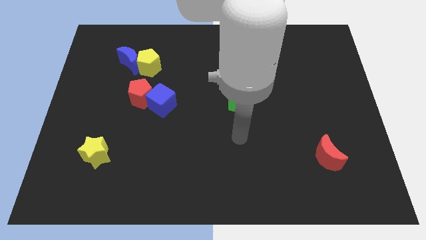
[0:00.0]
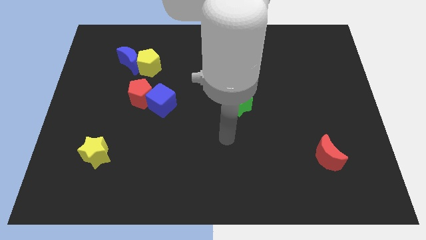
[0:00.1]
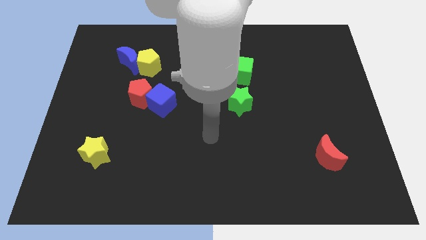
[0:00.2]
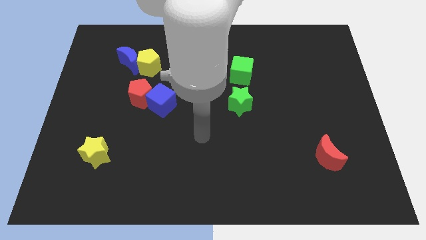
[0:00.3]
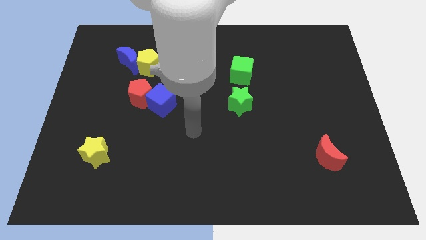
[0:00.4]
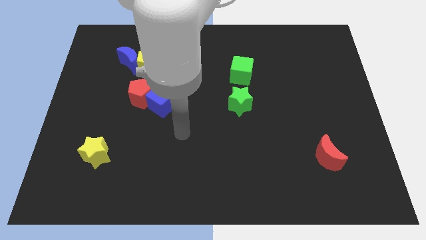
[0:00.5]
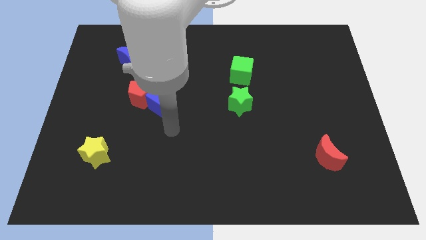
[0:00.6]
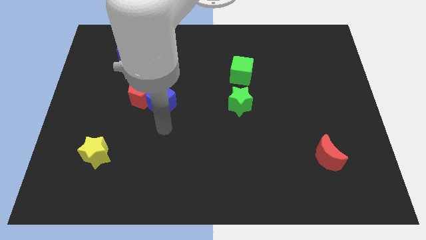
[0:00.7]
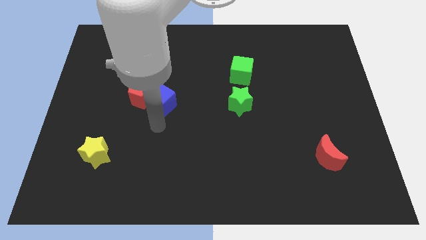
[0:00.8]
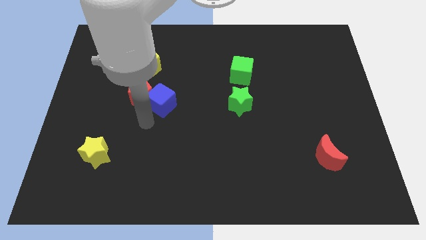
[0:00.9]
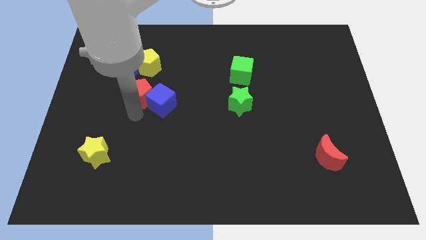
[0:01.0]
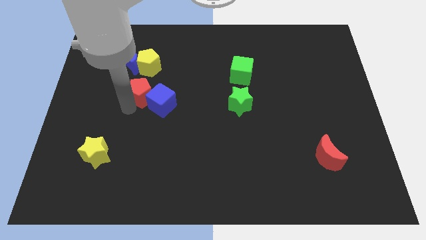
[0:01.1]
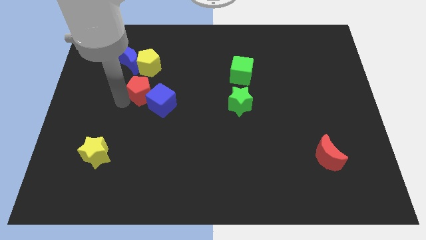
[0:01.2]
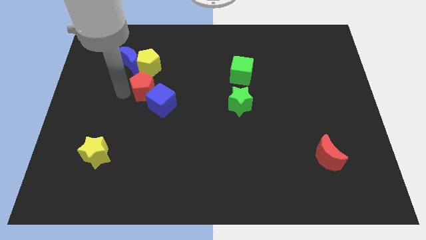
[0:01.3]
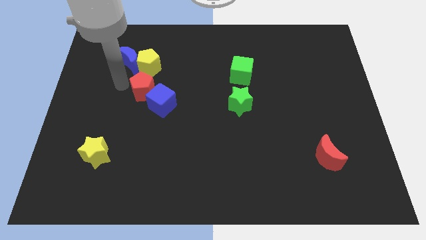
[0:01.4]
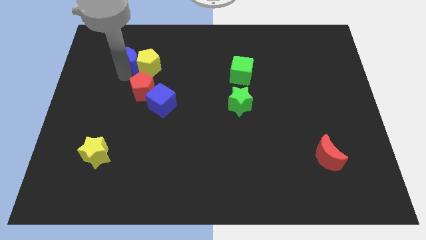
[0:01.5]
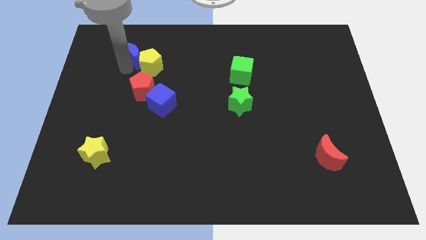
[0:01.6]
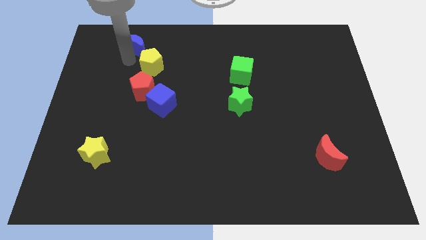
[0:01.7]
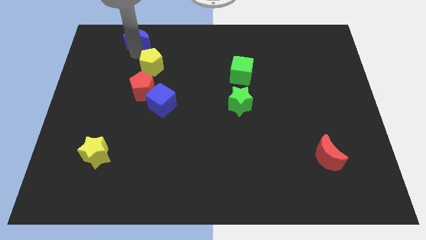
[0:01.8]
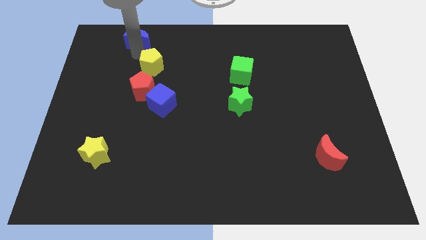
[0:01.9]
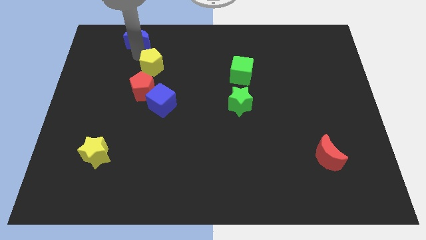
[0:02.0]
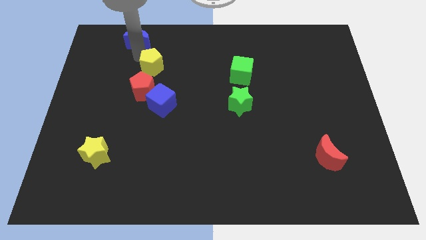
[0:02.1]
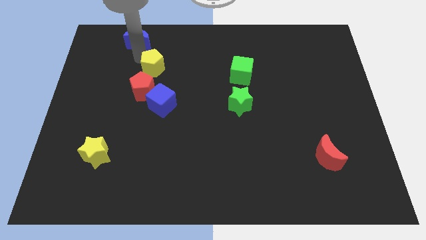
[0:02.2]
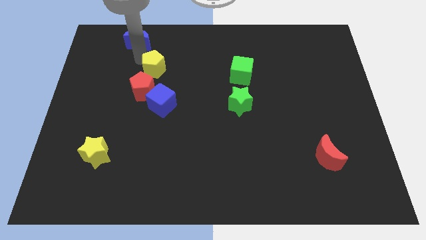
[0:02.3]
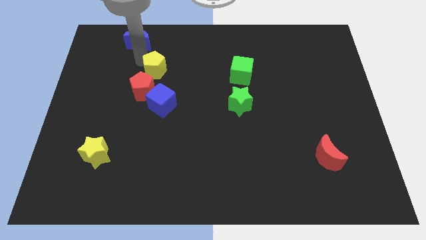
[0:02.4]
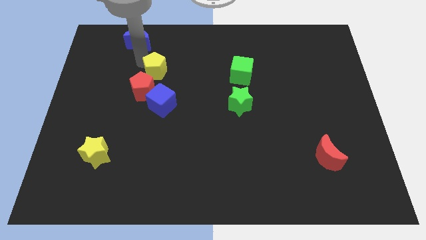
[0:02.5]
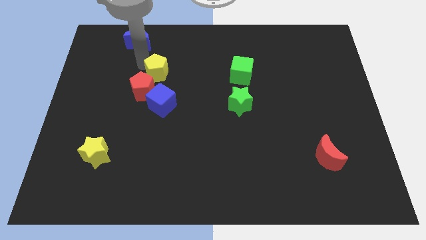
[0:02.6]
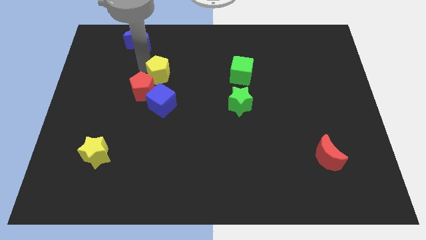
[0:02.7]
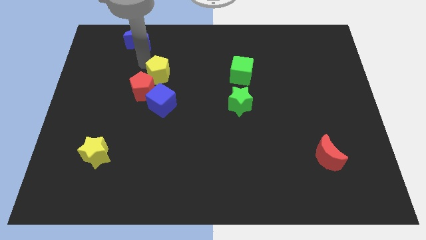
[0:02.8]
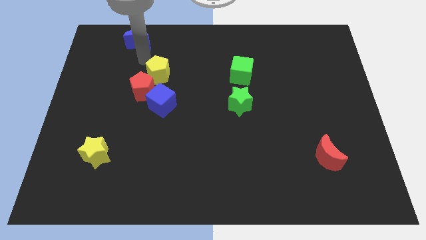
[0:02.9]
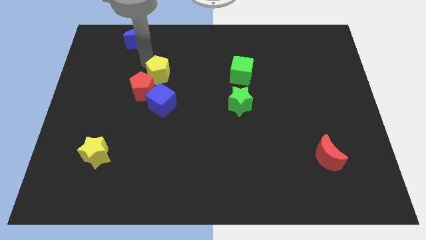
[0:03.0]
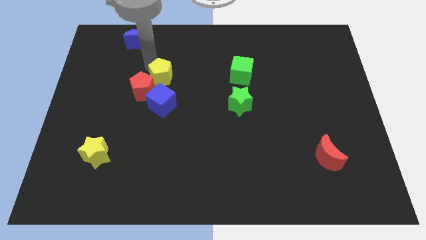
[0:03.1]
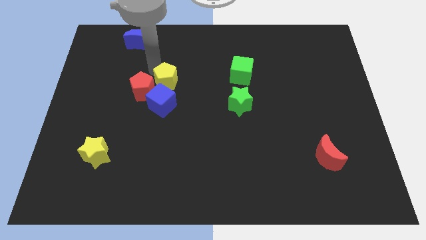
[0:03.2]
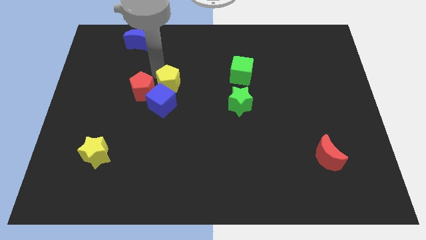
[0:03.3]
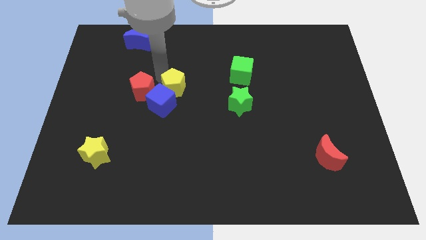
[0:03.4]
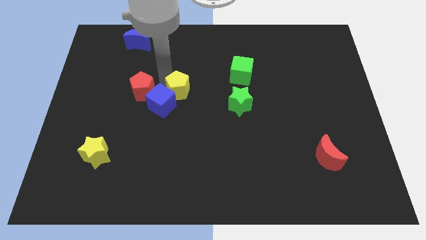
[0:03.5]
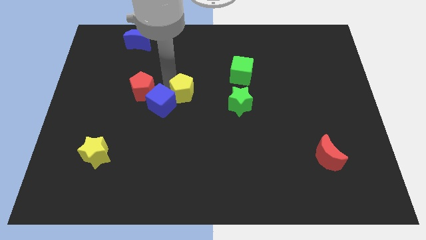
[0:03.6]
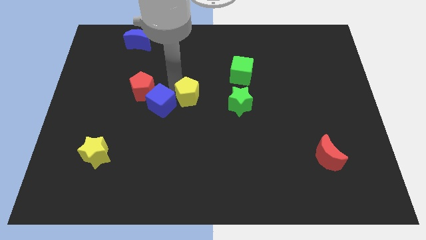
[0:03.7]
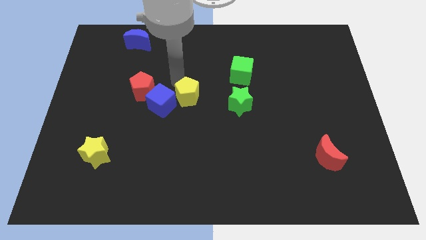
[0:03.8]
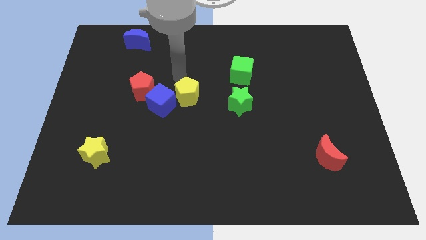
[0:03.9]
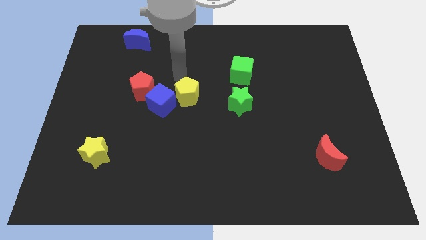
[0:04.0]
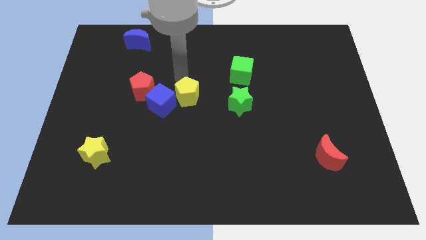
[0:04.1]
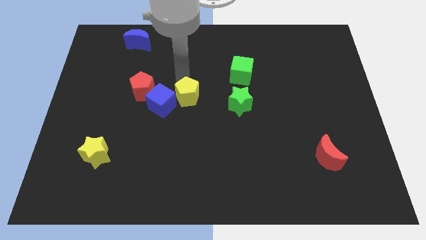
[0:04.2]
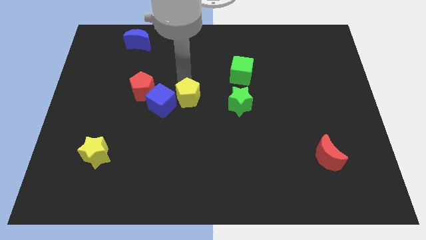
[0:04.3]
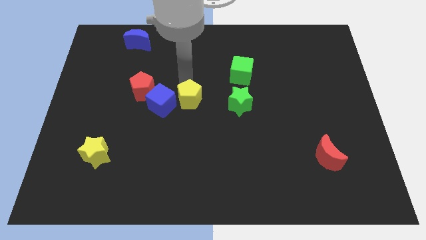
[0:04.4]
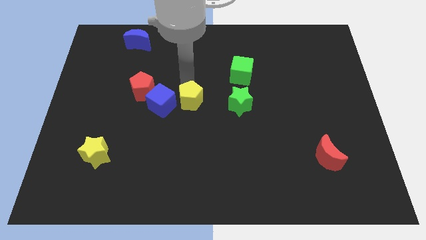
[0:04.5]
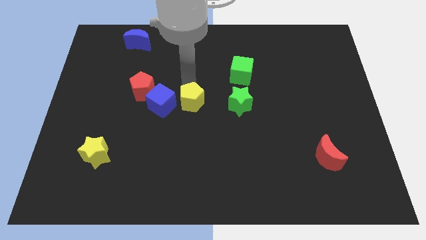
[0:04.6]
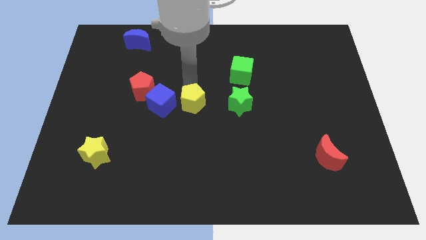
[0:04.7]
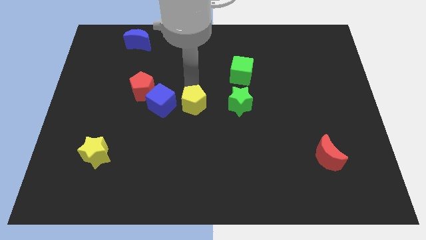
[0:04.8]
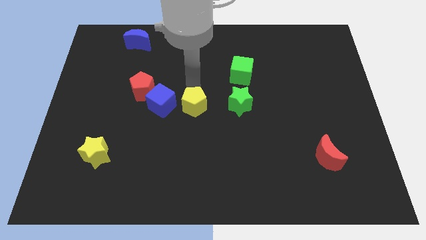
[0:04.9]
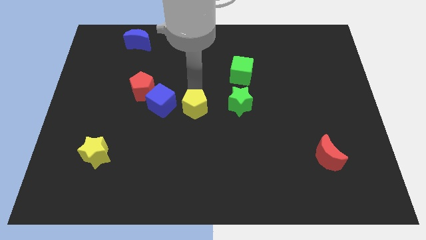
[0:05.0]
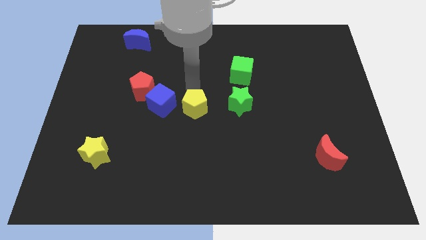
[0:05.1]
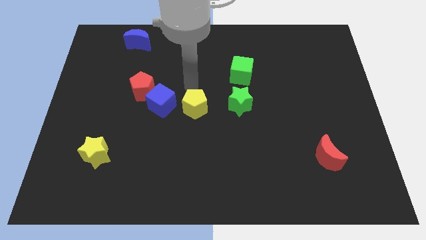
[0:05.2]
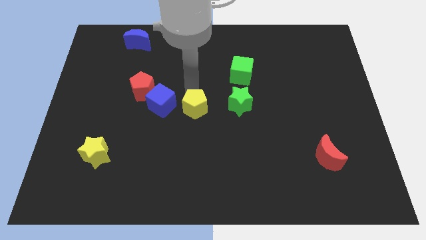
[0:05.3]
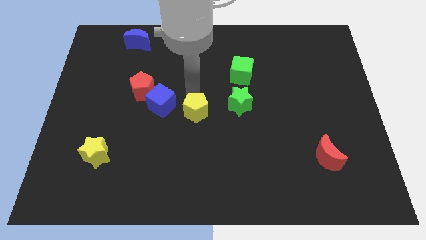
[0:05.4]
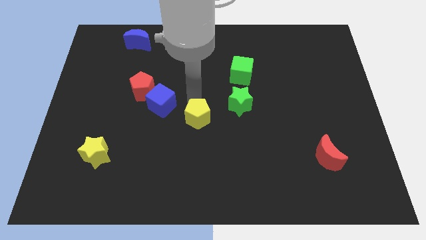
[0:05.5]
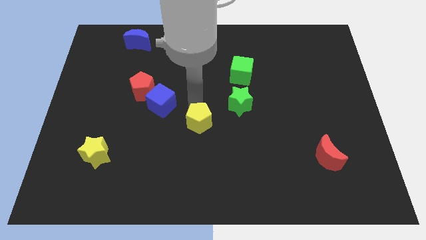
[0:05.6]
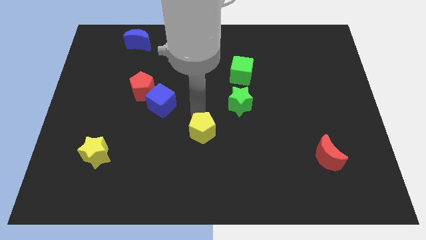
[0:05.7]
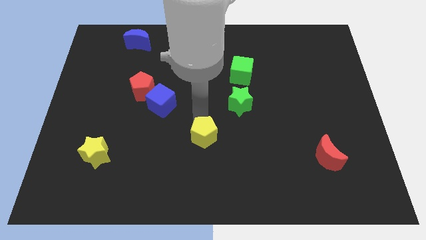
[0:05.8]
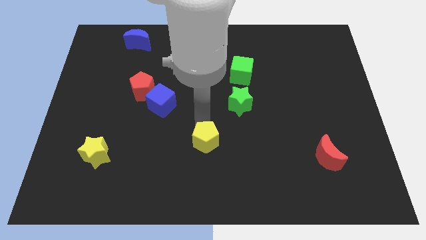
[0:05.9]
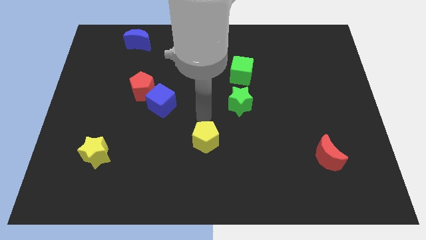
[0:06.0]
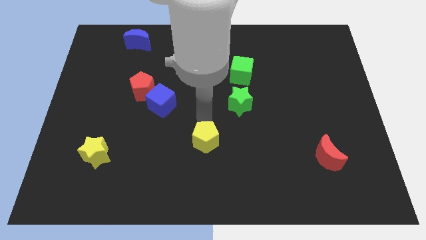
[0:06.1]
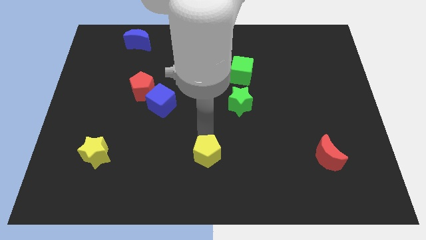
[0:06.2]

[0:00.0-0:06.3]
slide the yellow pentagon to the bottom side

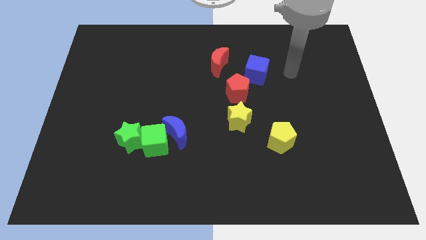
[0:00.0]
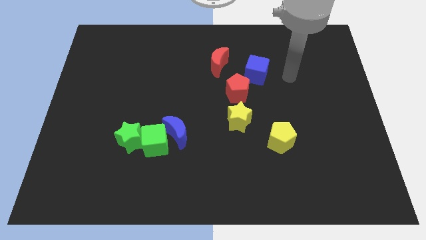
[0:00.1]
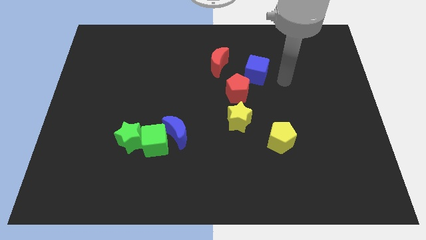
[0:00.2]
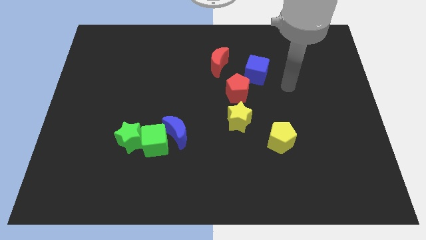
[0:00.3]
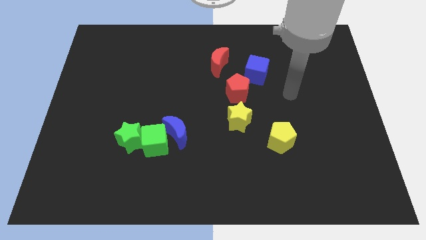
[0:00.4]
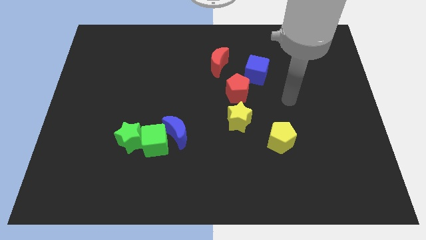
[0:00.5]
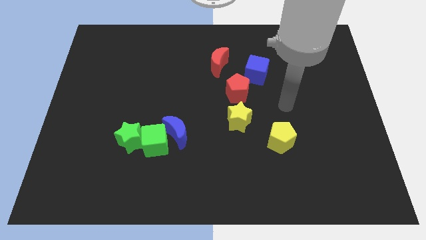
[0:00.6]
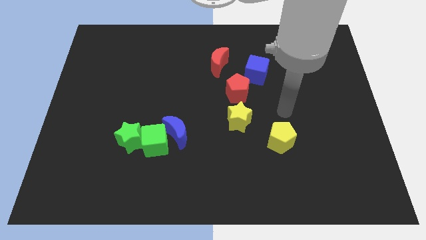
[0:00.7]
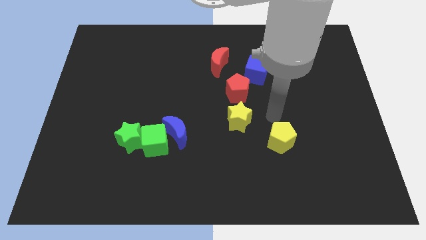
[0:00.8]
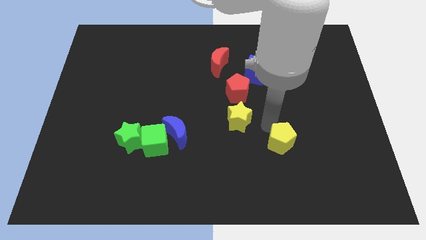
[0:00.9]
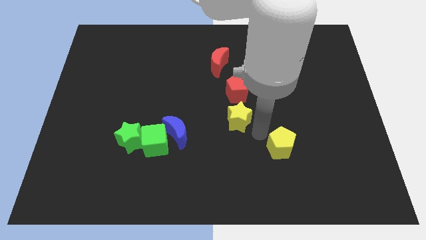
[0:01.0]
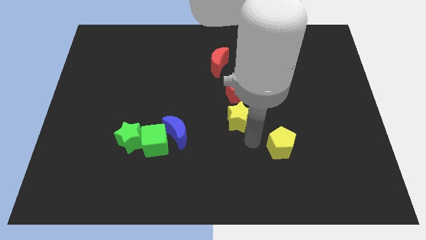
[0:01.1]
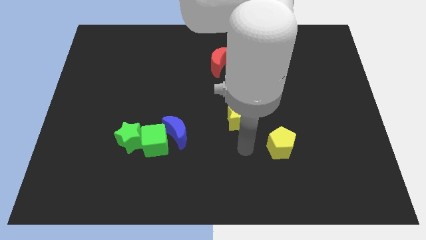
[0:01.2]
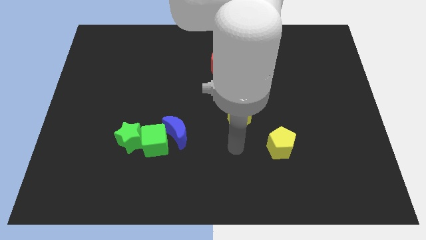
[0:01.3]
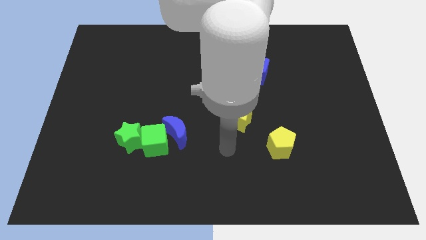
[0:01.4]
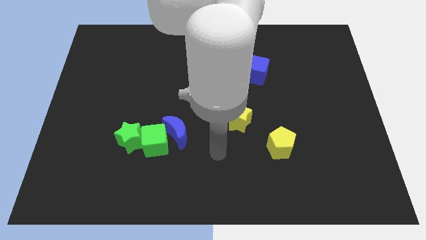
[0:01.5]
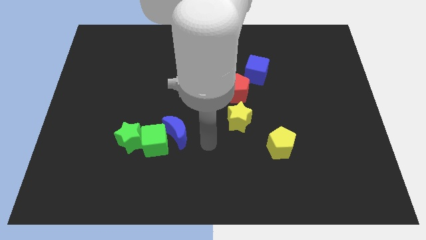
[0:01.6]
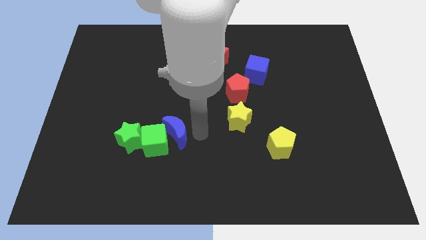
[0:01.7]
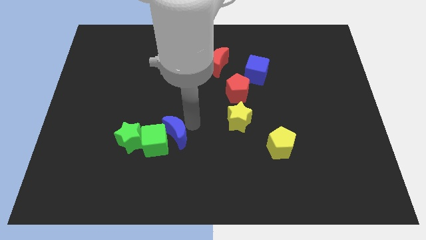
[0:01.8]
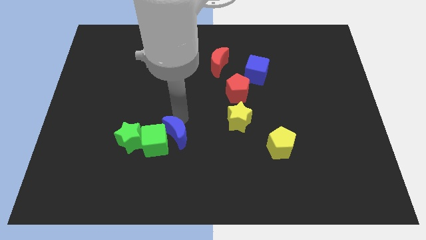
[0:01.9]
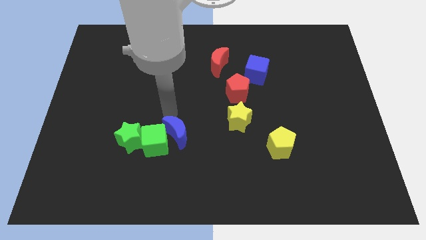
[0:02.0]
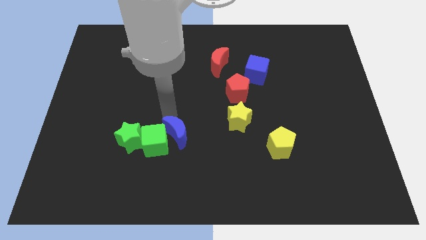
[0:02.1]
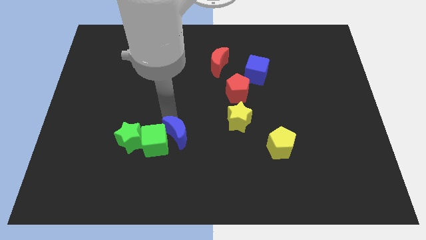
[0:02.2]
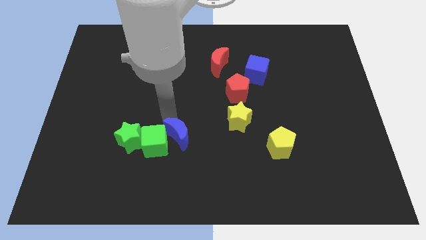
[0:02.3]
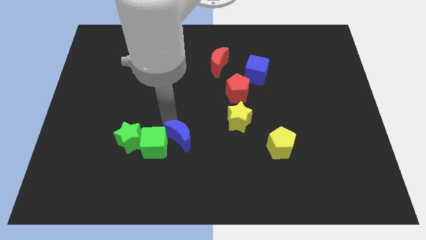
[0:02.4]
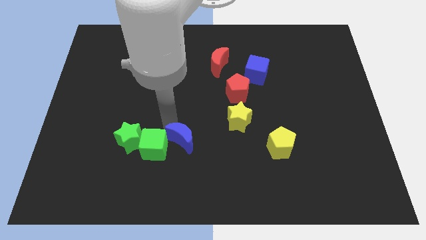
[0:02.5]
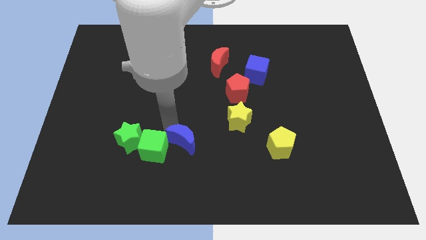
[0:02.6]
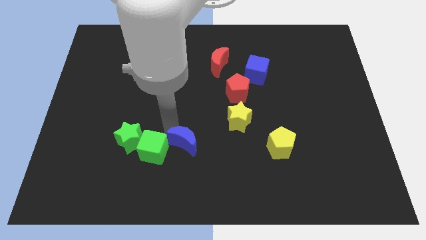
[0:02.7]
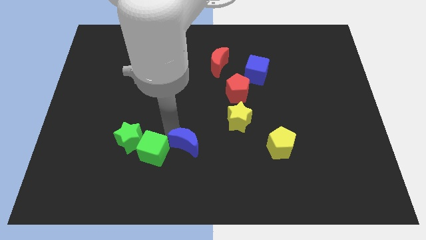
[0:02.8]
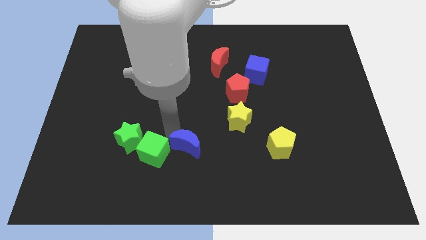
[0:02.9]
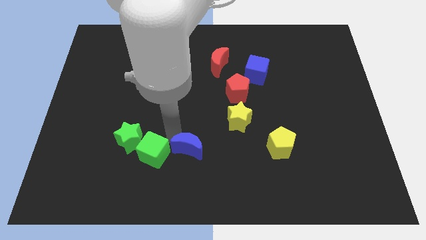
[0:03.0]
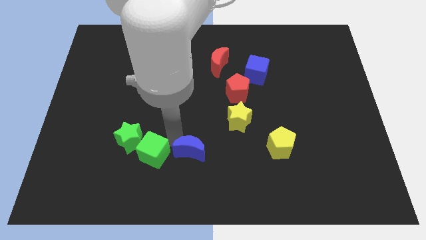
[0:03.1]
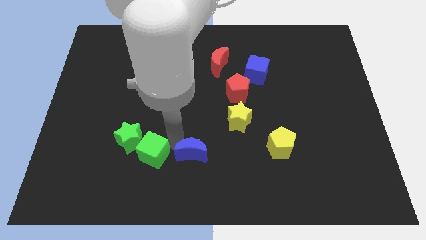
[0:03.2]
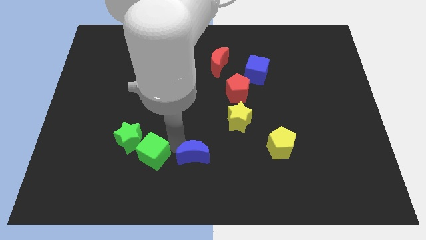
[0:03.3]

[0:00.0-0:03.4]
push the blue moon to the bottom side
